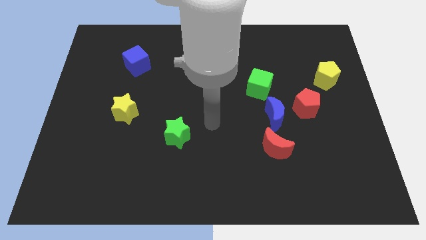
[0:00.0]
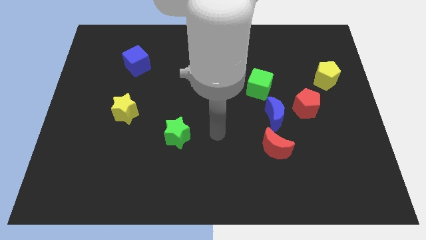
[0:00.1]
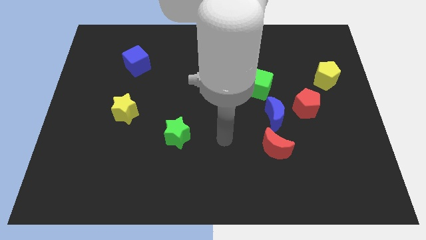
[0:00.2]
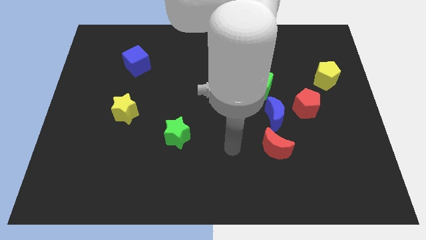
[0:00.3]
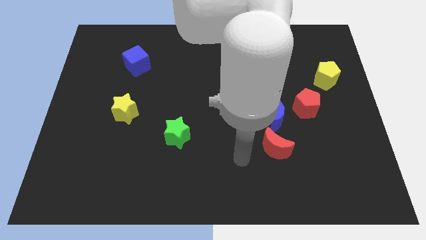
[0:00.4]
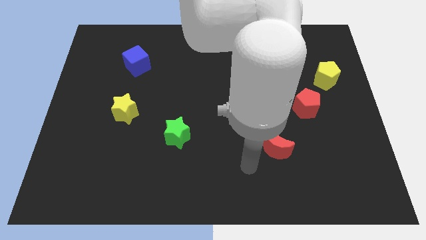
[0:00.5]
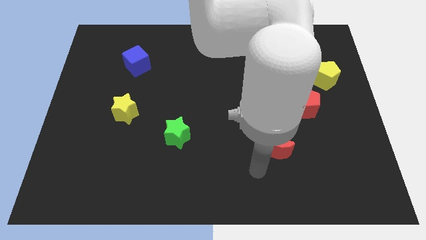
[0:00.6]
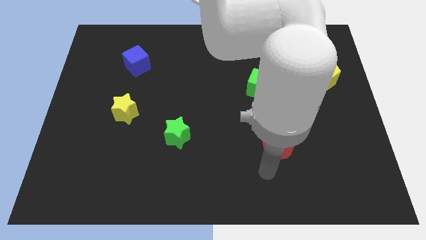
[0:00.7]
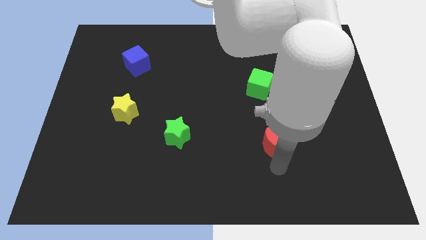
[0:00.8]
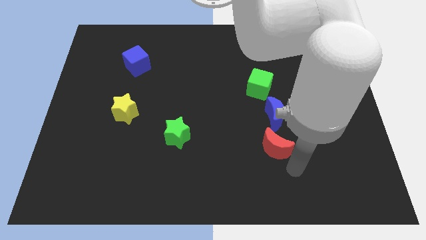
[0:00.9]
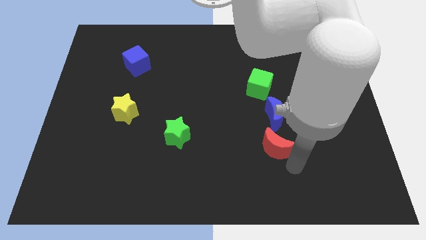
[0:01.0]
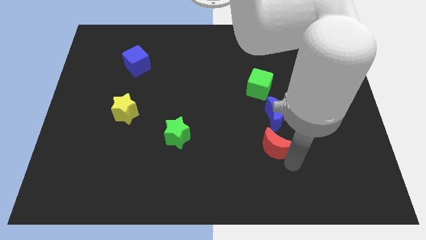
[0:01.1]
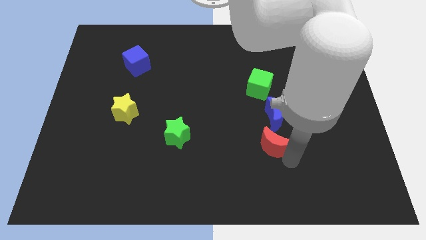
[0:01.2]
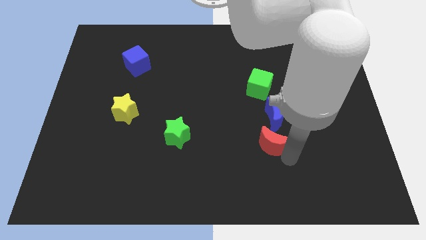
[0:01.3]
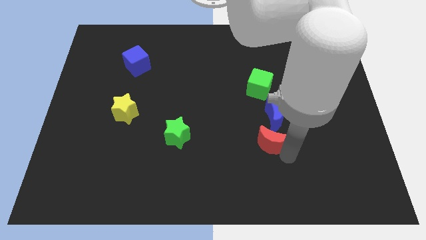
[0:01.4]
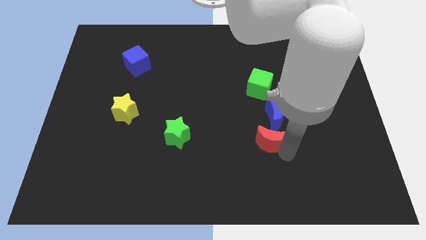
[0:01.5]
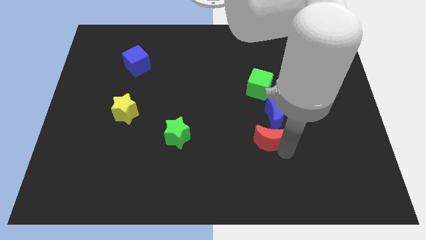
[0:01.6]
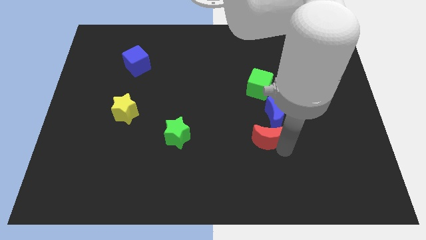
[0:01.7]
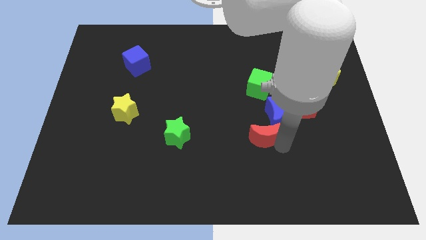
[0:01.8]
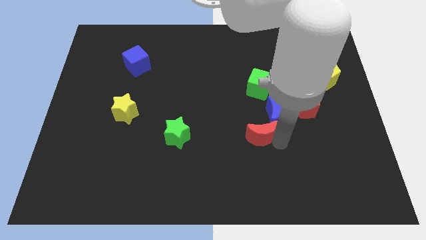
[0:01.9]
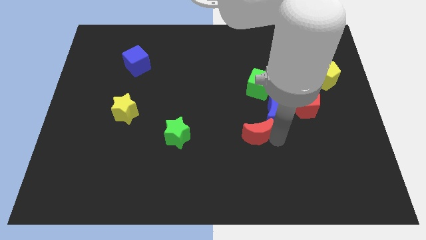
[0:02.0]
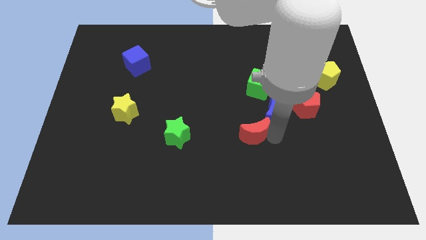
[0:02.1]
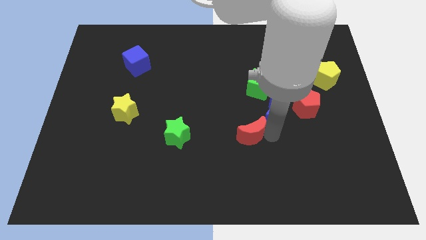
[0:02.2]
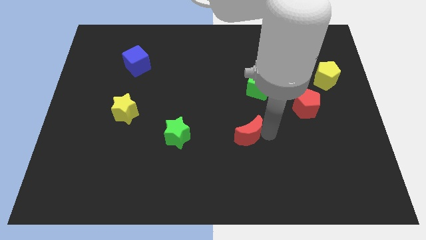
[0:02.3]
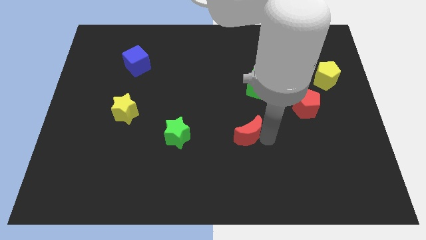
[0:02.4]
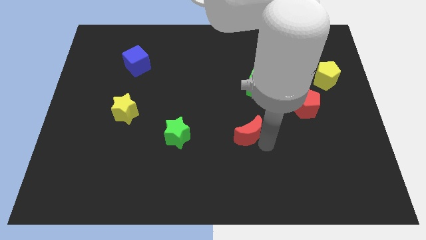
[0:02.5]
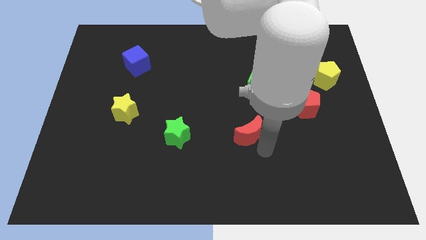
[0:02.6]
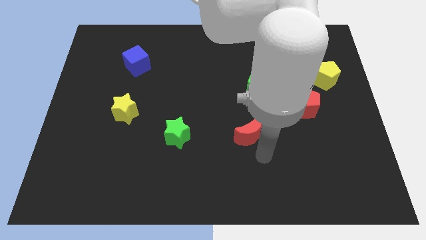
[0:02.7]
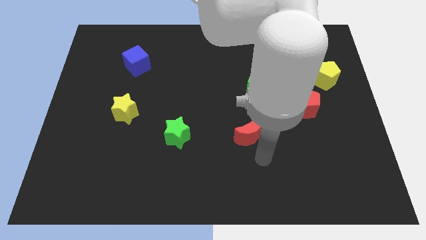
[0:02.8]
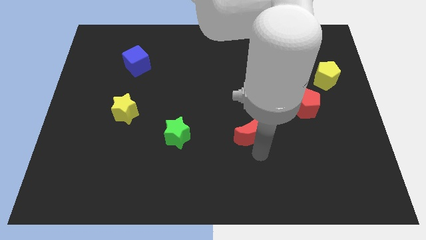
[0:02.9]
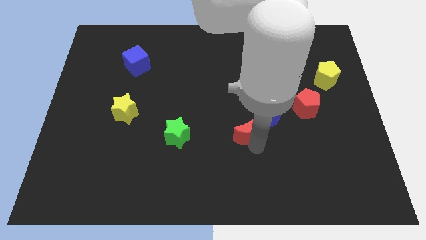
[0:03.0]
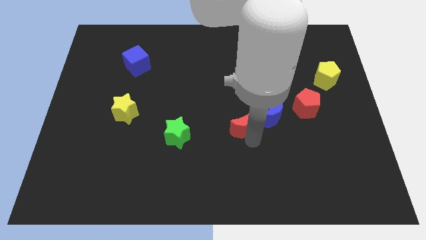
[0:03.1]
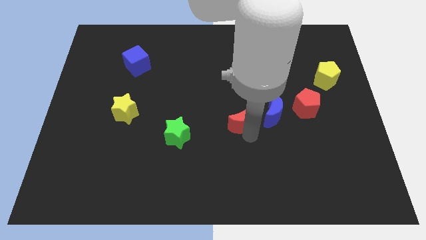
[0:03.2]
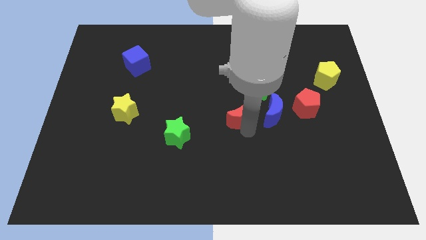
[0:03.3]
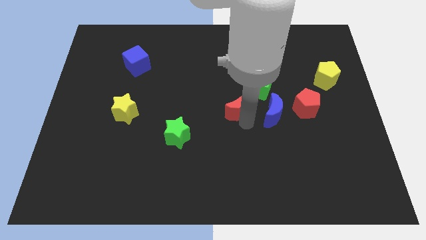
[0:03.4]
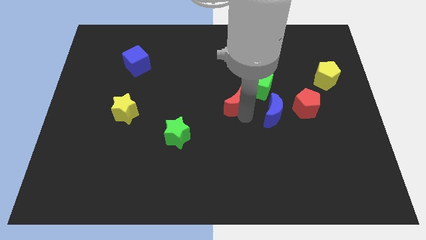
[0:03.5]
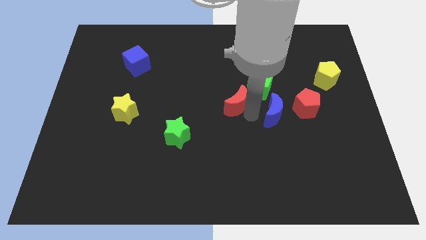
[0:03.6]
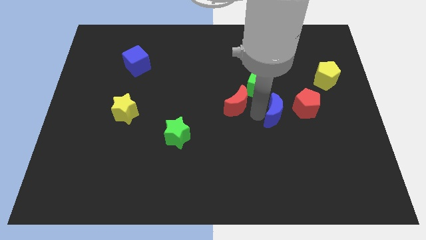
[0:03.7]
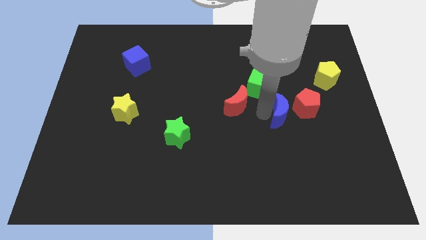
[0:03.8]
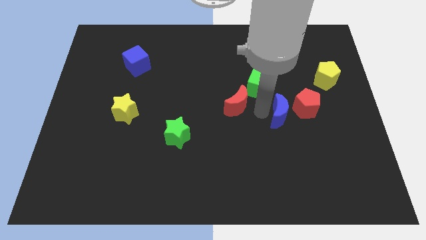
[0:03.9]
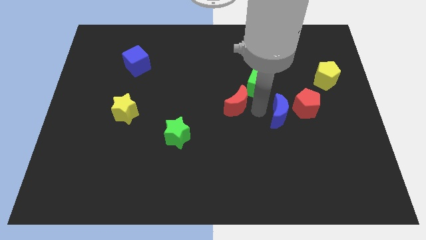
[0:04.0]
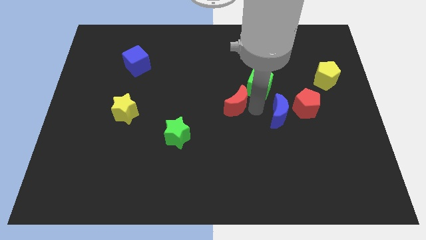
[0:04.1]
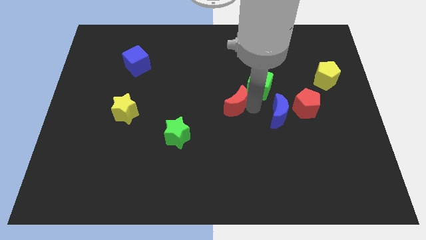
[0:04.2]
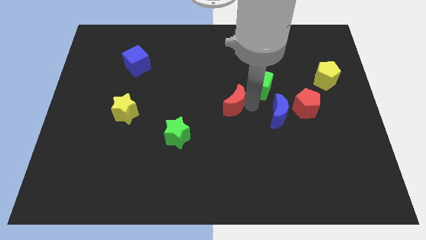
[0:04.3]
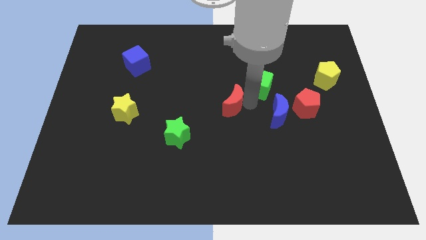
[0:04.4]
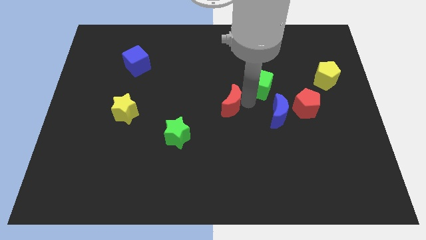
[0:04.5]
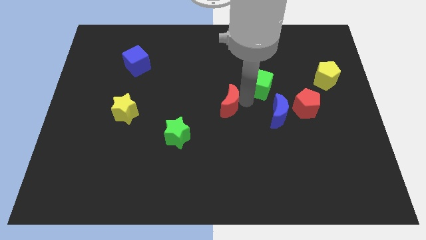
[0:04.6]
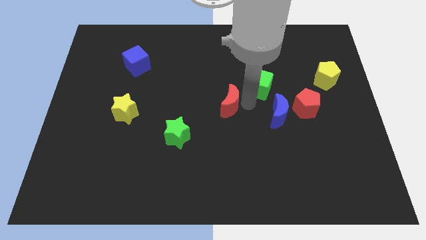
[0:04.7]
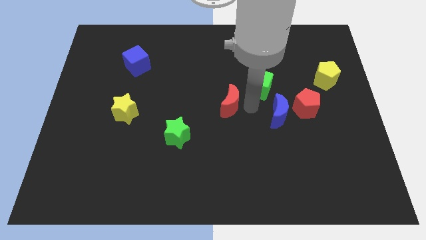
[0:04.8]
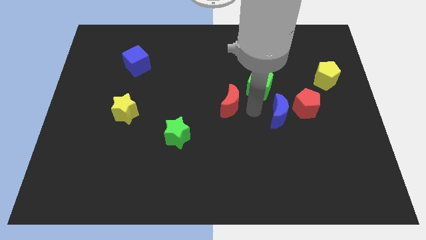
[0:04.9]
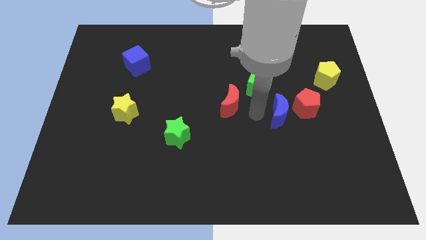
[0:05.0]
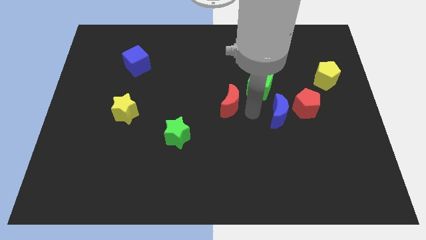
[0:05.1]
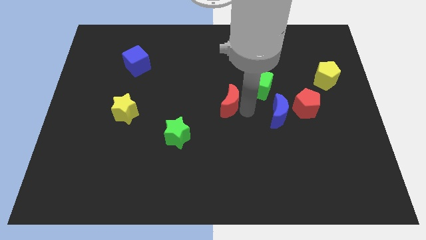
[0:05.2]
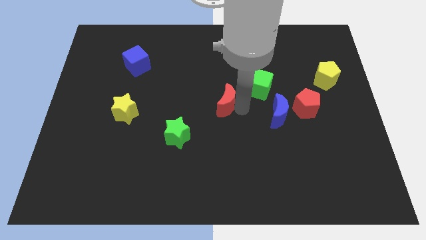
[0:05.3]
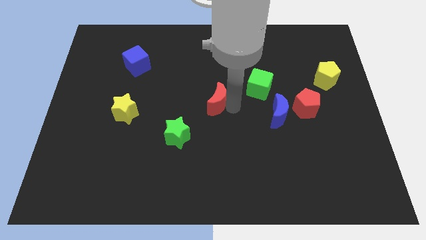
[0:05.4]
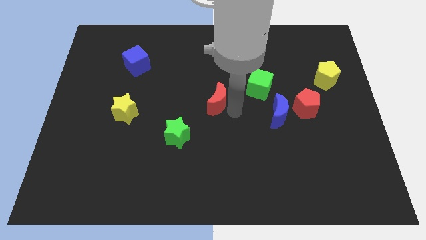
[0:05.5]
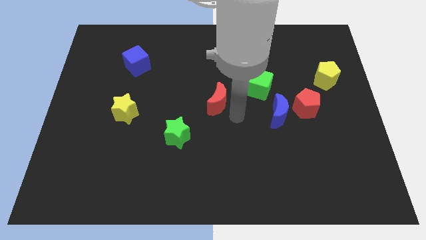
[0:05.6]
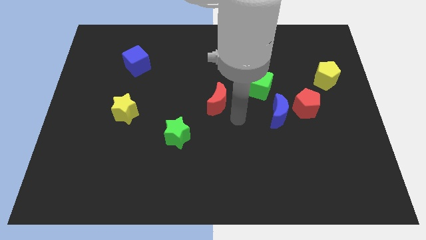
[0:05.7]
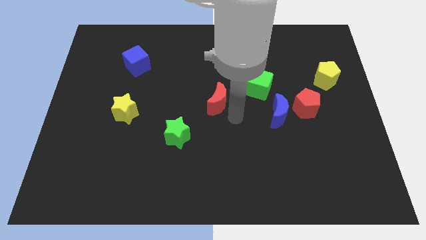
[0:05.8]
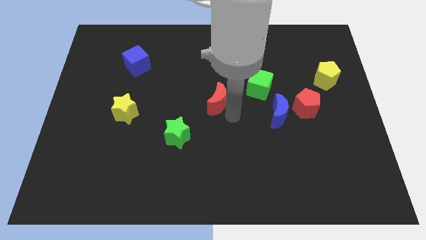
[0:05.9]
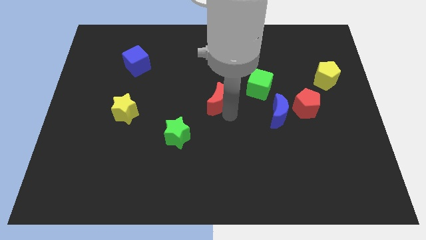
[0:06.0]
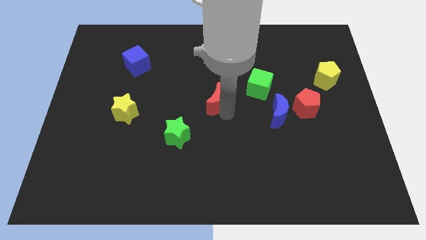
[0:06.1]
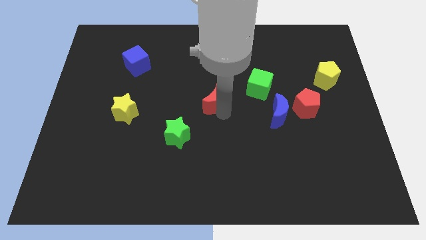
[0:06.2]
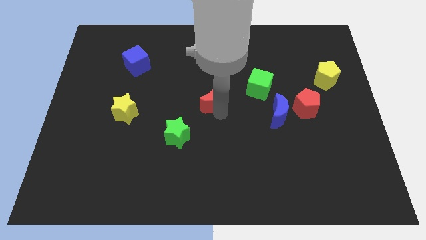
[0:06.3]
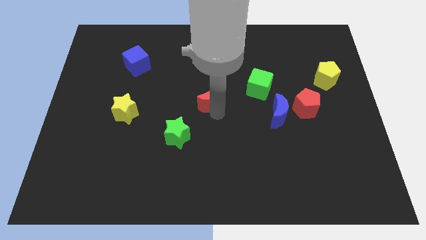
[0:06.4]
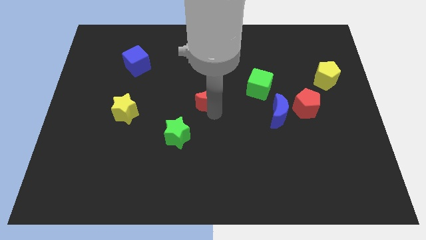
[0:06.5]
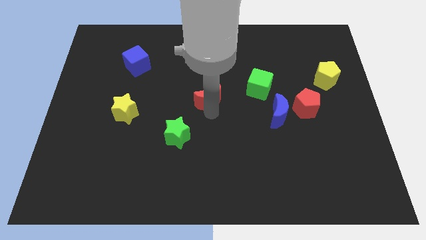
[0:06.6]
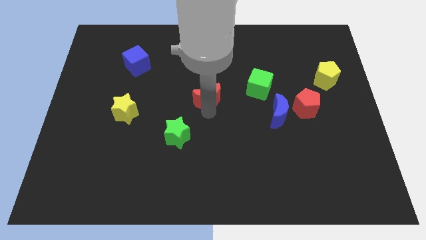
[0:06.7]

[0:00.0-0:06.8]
slide the red moon upwards and left diagonally

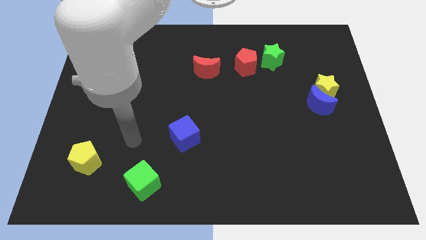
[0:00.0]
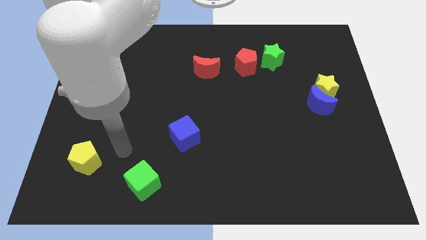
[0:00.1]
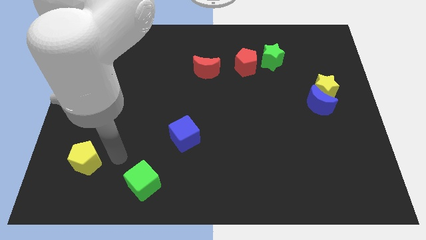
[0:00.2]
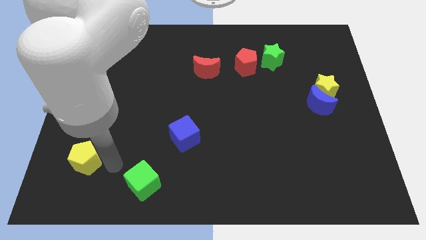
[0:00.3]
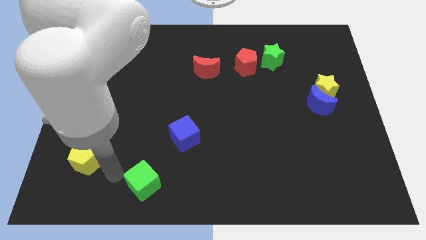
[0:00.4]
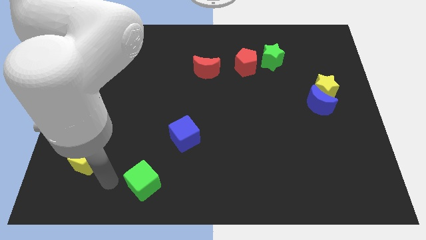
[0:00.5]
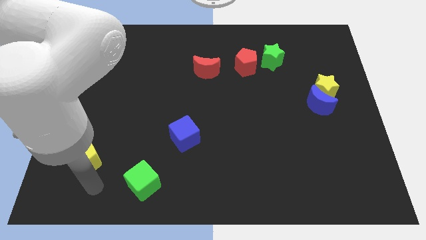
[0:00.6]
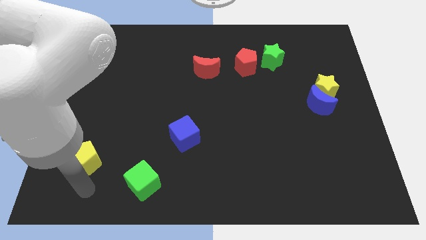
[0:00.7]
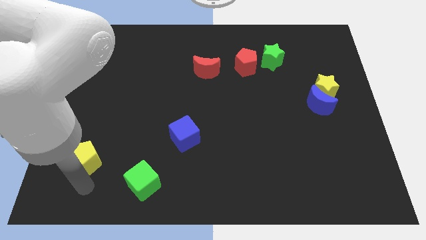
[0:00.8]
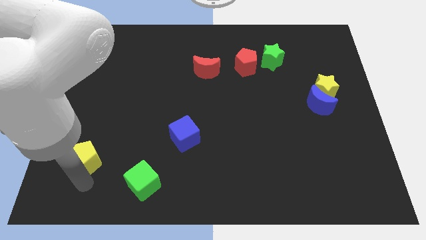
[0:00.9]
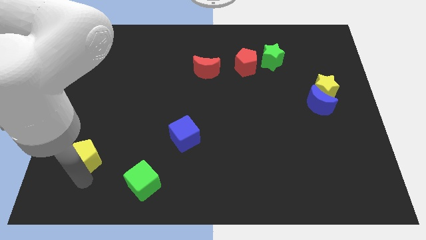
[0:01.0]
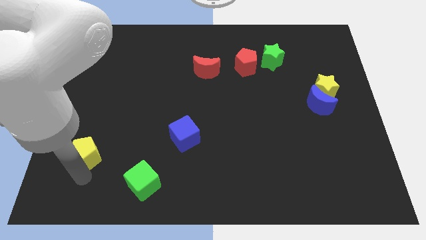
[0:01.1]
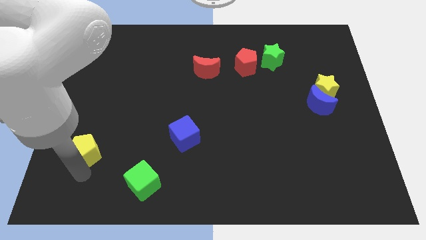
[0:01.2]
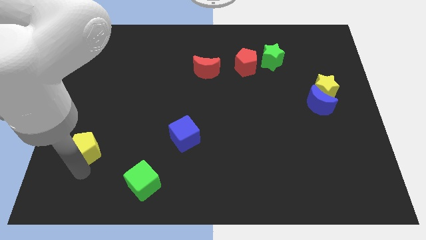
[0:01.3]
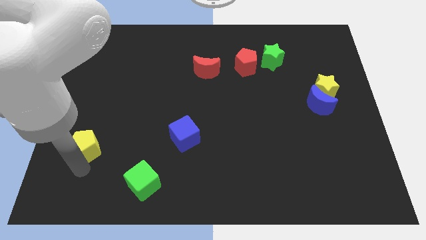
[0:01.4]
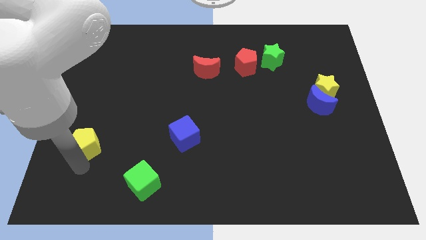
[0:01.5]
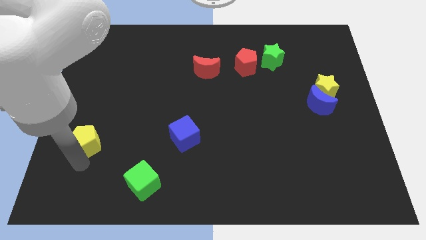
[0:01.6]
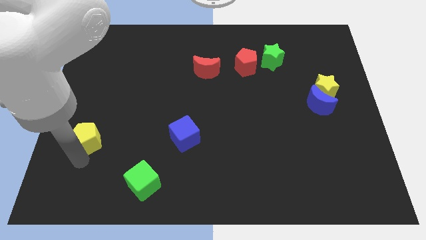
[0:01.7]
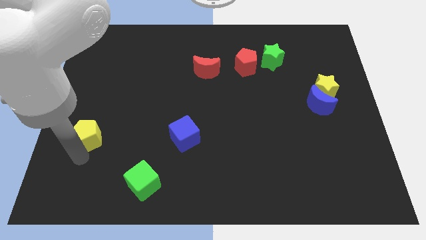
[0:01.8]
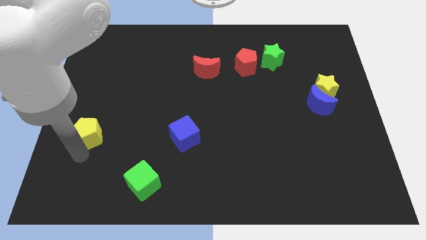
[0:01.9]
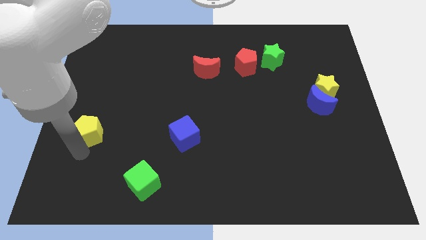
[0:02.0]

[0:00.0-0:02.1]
slightly slide the yellow pentagon up
